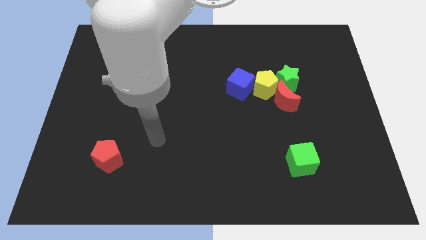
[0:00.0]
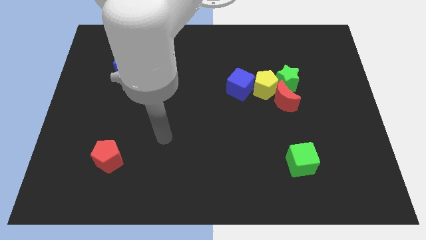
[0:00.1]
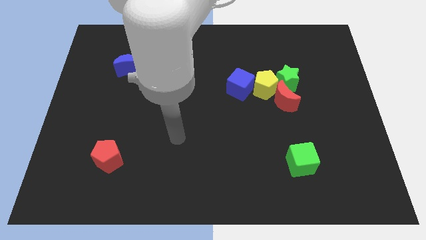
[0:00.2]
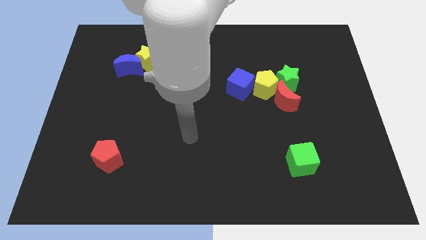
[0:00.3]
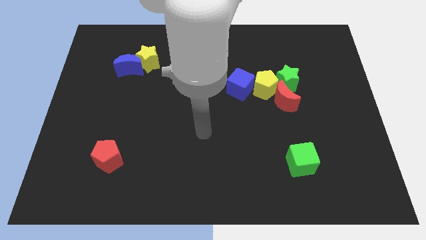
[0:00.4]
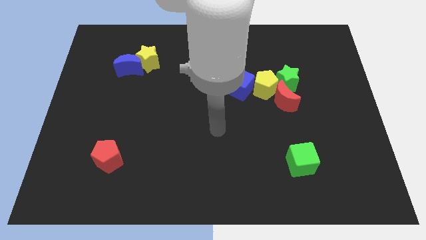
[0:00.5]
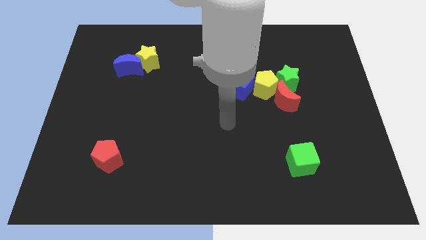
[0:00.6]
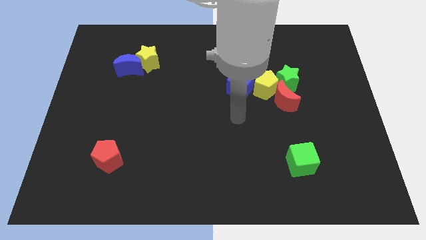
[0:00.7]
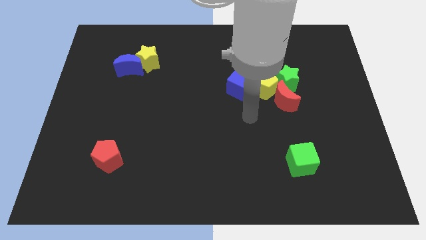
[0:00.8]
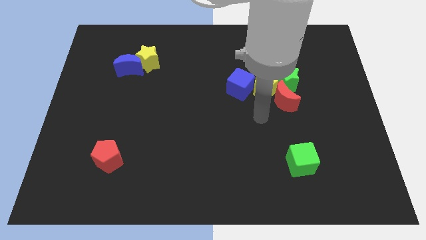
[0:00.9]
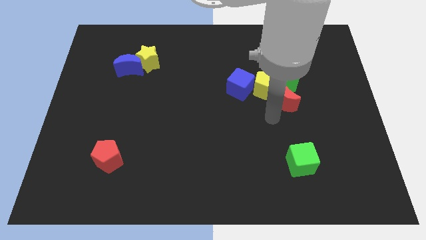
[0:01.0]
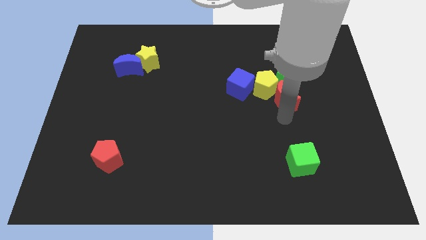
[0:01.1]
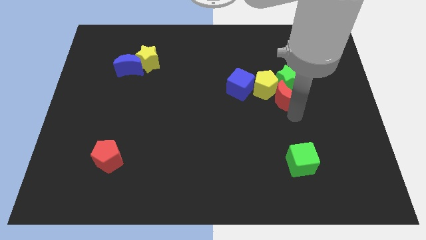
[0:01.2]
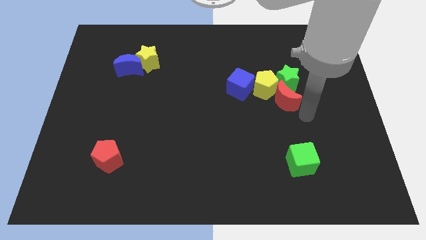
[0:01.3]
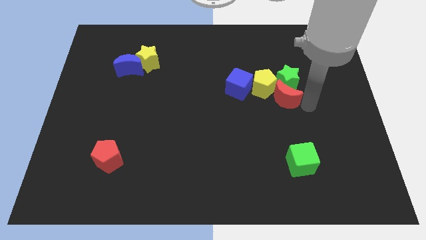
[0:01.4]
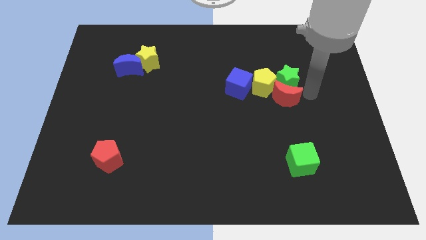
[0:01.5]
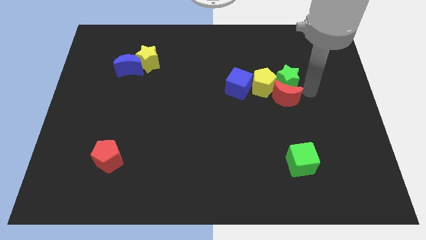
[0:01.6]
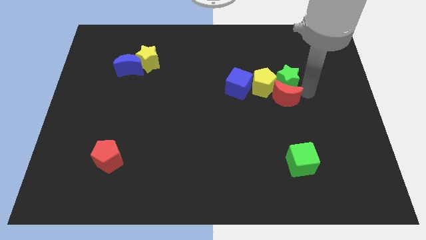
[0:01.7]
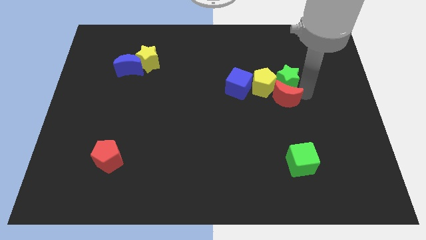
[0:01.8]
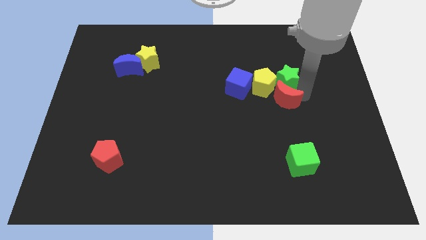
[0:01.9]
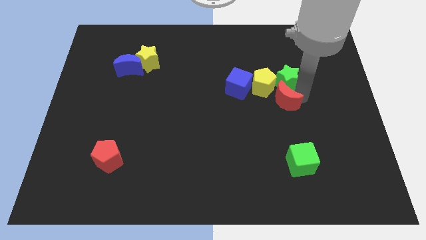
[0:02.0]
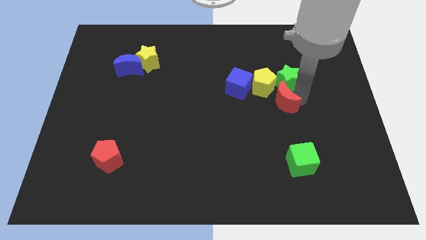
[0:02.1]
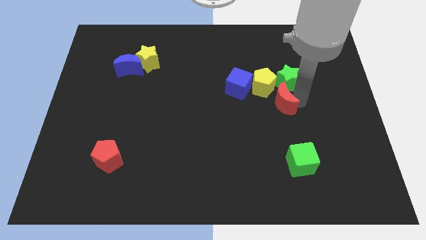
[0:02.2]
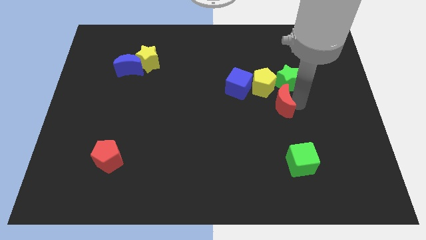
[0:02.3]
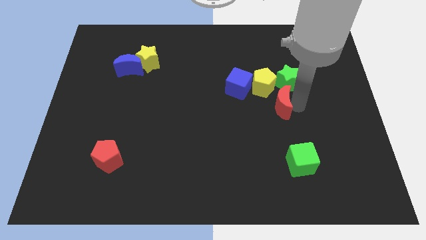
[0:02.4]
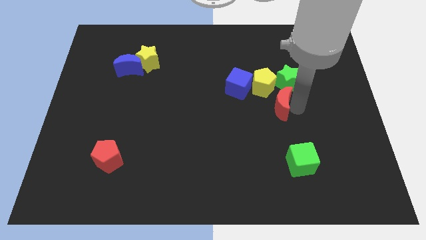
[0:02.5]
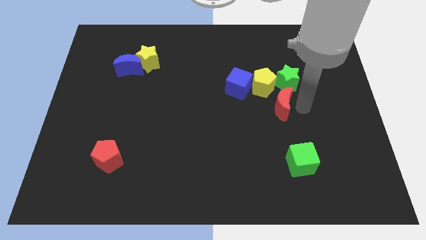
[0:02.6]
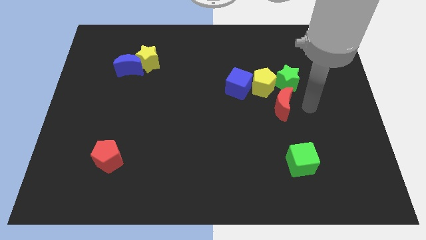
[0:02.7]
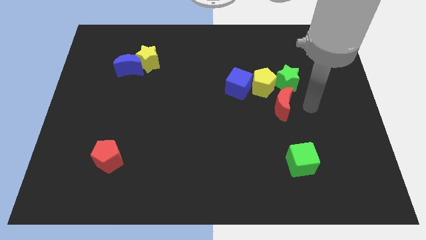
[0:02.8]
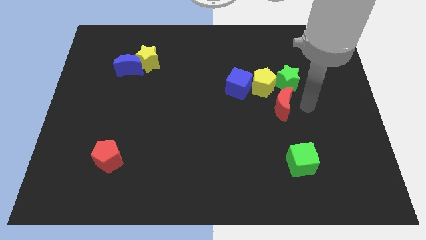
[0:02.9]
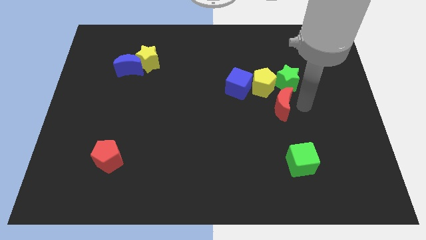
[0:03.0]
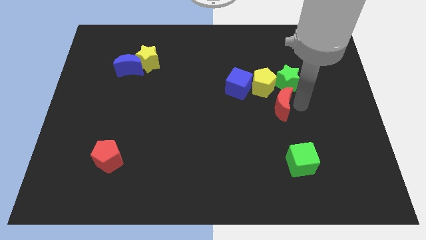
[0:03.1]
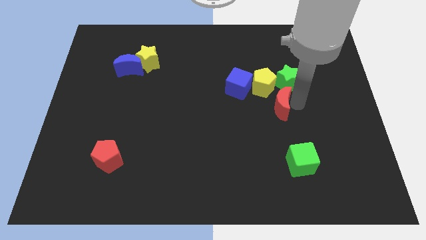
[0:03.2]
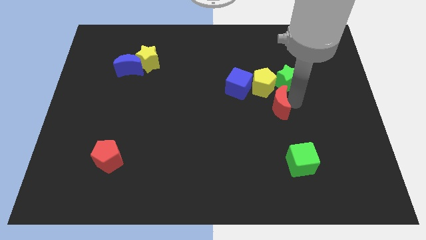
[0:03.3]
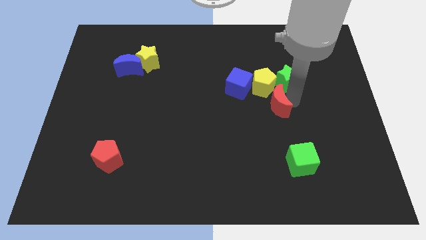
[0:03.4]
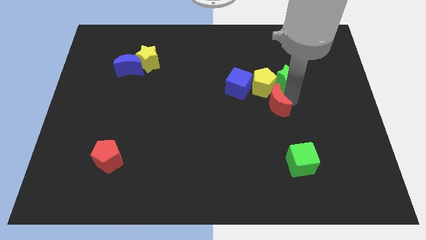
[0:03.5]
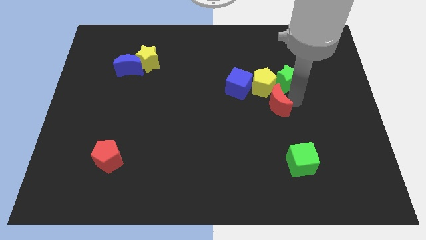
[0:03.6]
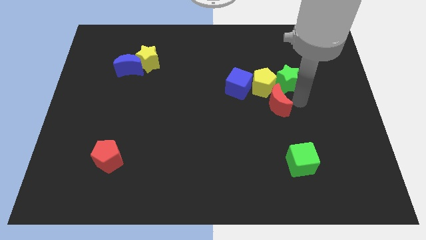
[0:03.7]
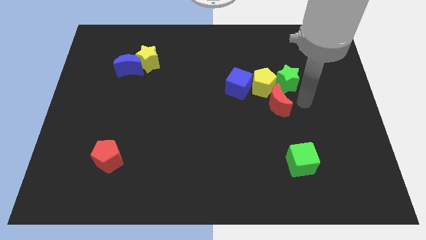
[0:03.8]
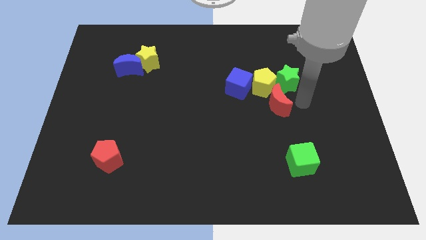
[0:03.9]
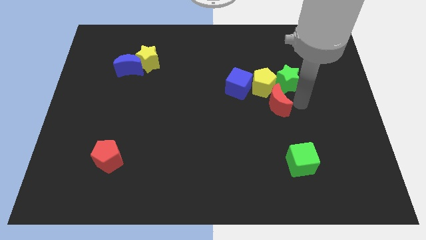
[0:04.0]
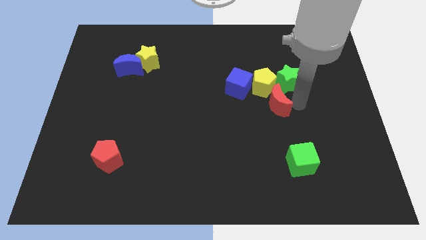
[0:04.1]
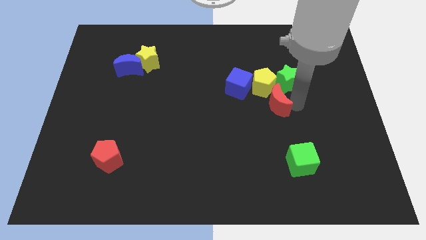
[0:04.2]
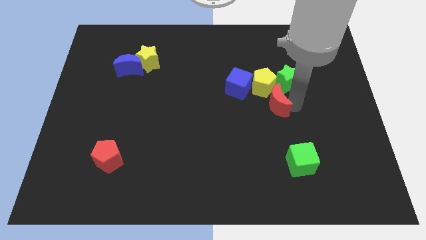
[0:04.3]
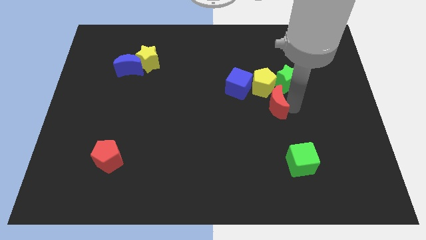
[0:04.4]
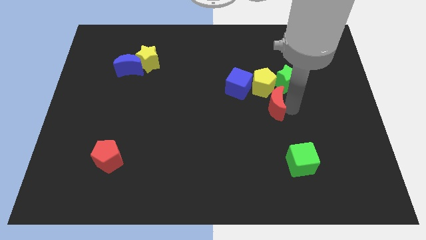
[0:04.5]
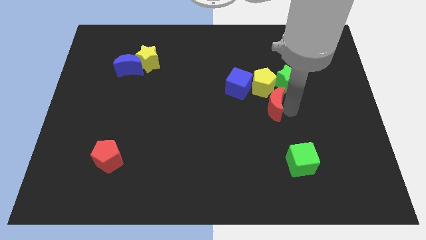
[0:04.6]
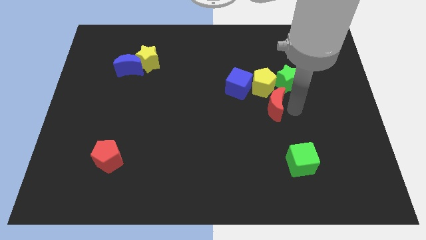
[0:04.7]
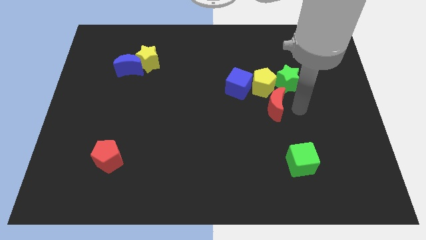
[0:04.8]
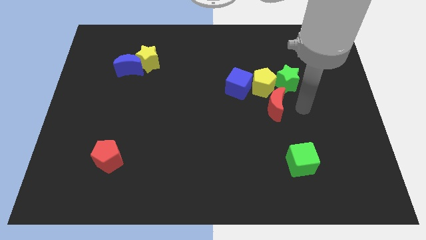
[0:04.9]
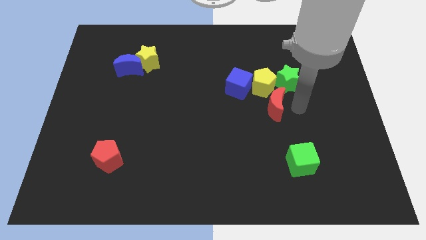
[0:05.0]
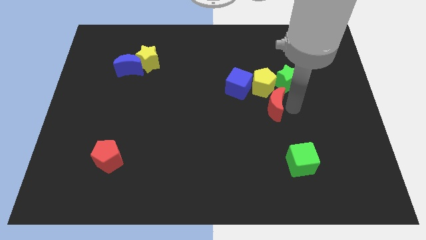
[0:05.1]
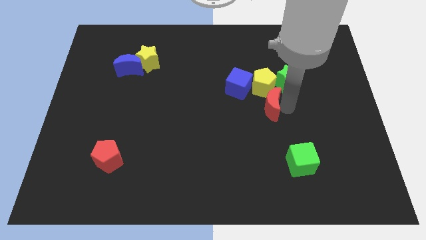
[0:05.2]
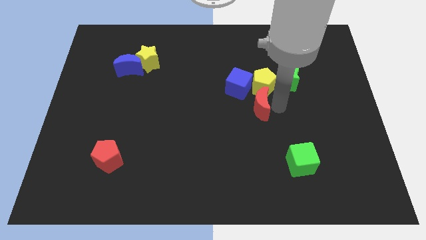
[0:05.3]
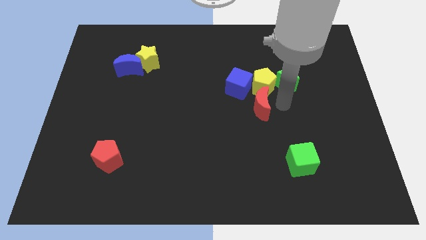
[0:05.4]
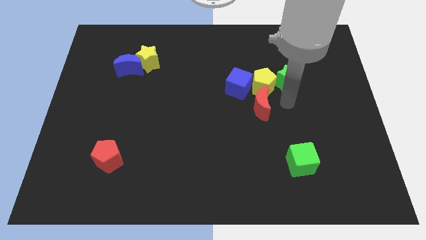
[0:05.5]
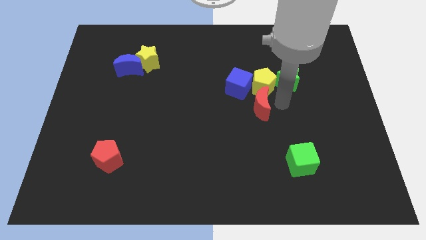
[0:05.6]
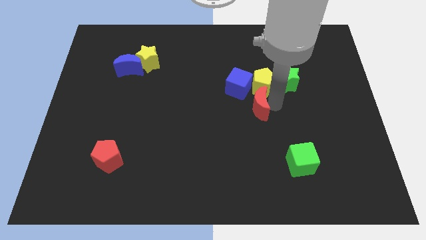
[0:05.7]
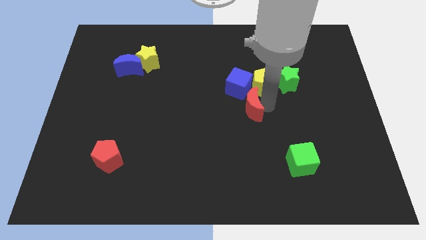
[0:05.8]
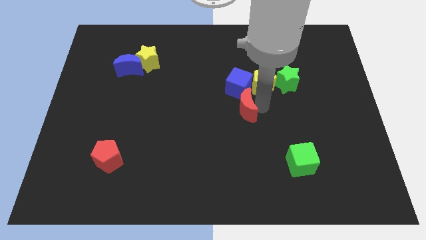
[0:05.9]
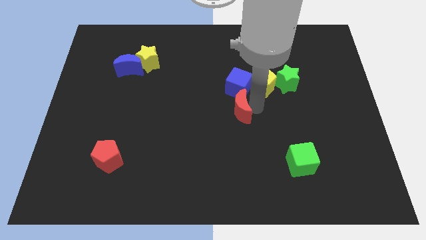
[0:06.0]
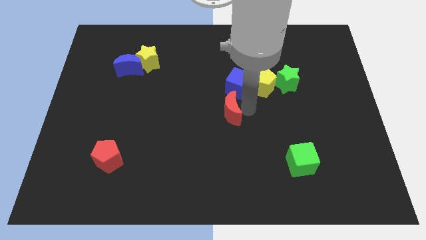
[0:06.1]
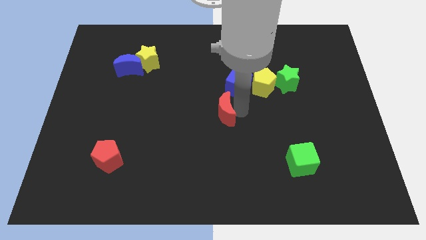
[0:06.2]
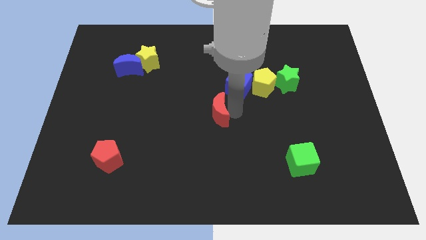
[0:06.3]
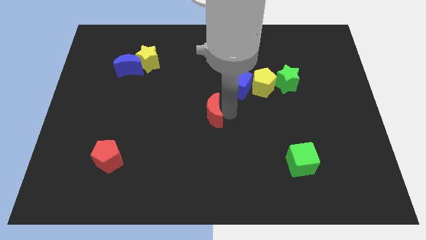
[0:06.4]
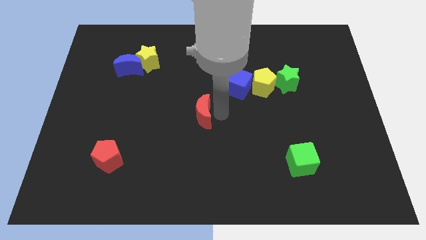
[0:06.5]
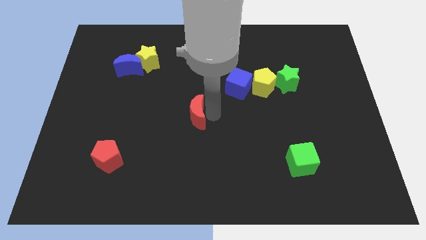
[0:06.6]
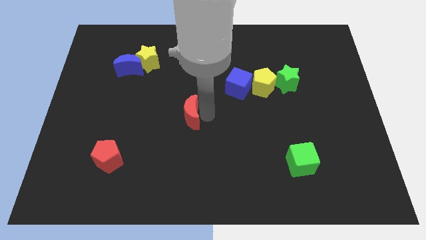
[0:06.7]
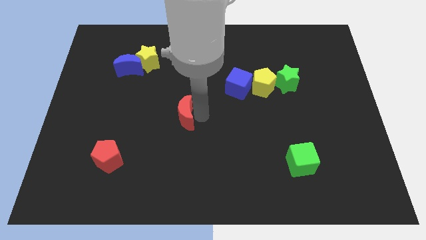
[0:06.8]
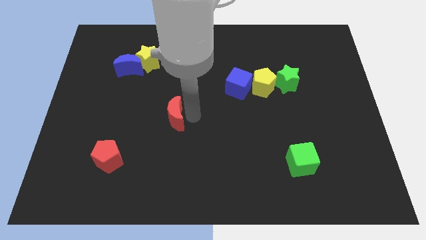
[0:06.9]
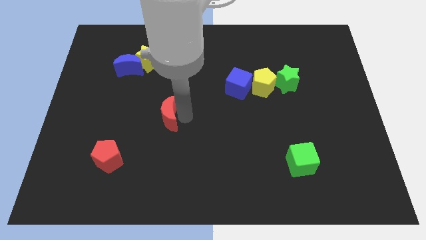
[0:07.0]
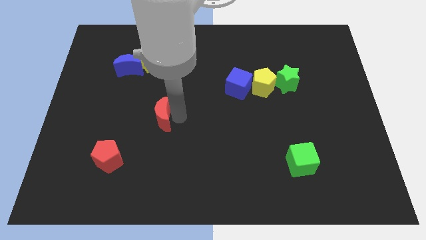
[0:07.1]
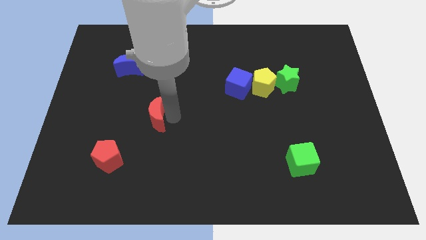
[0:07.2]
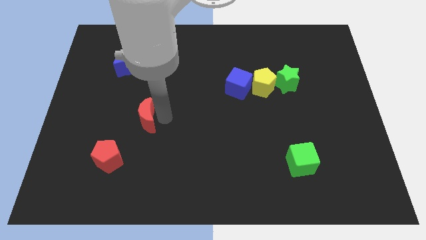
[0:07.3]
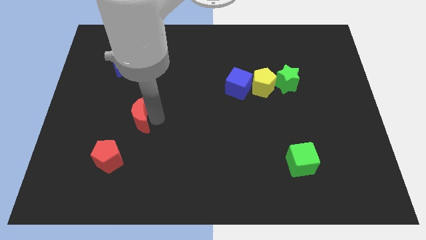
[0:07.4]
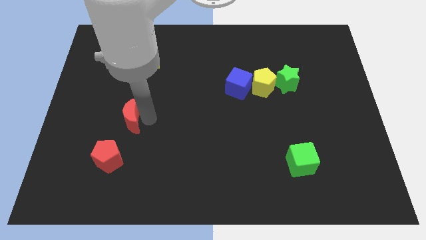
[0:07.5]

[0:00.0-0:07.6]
put the red moon to the top side of the red pentagon
